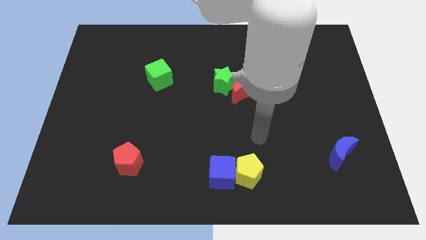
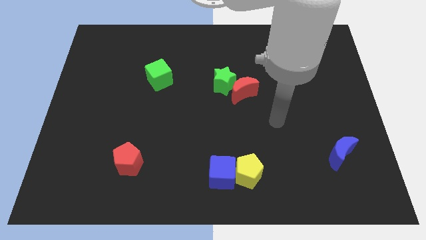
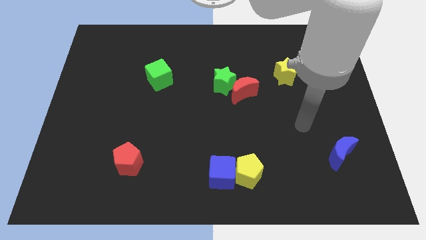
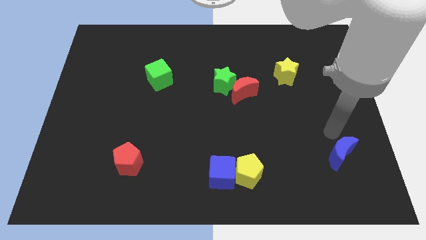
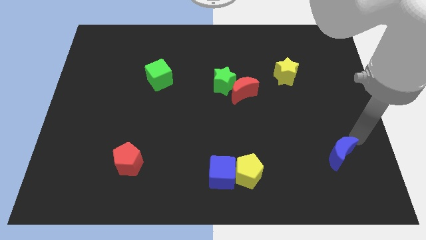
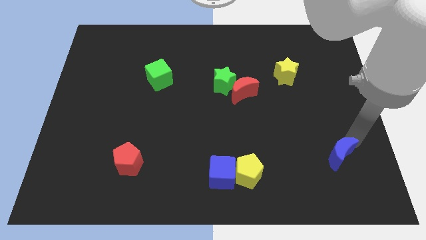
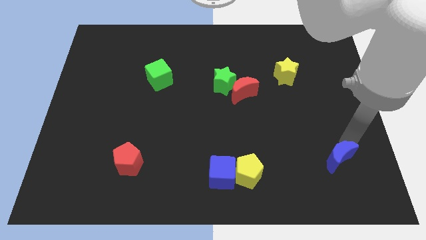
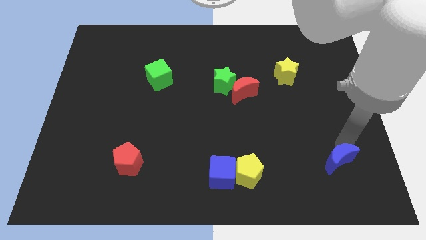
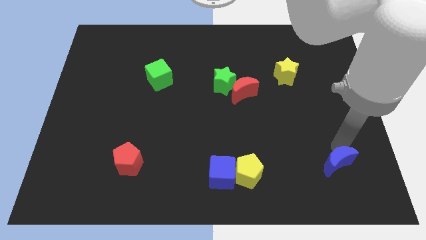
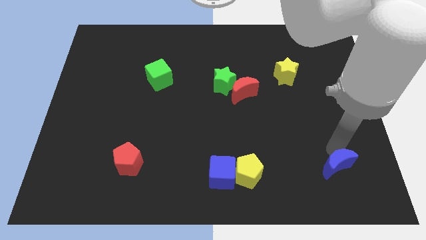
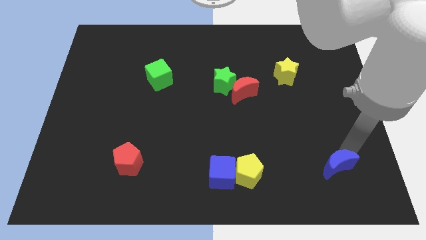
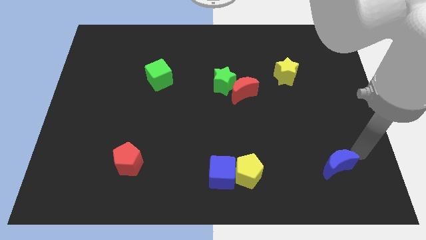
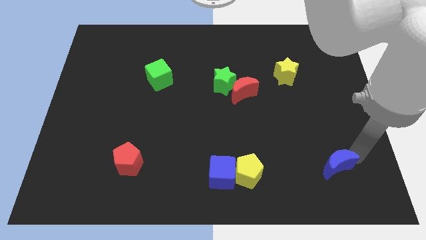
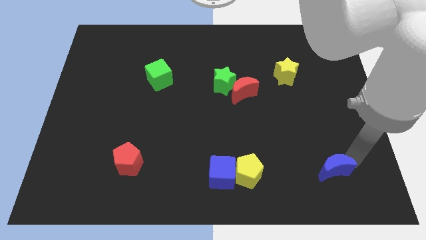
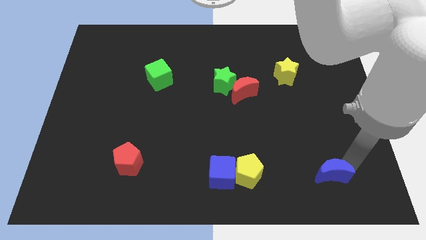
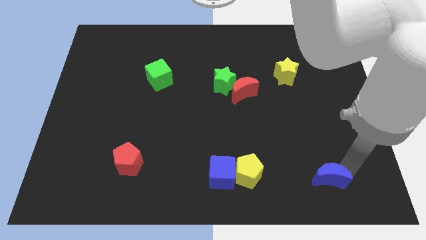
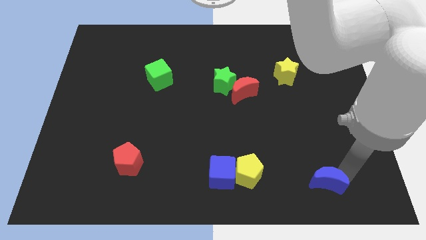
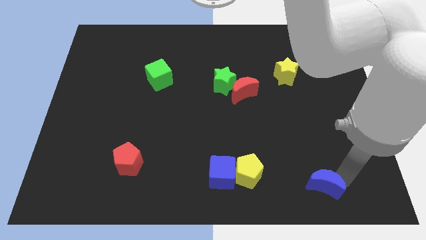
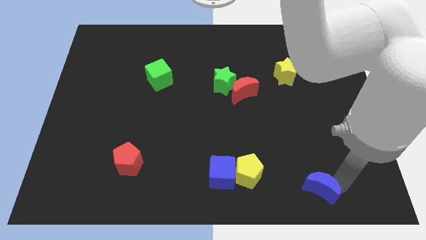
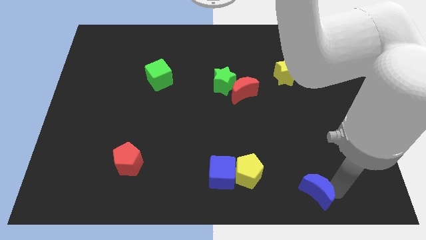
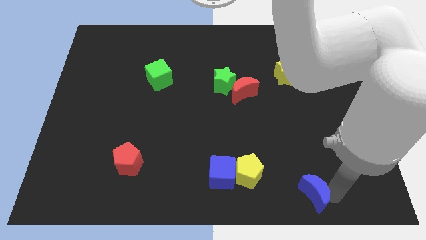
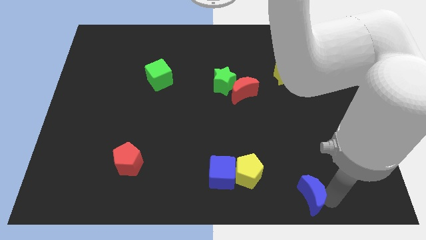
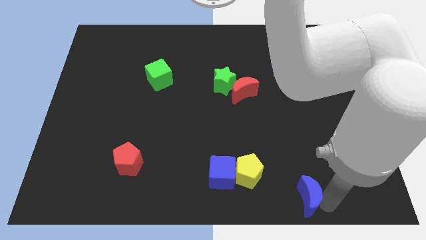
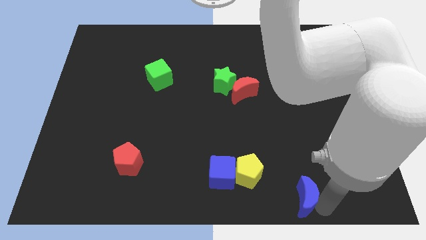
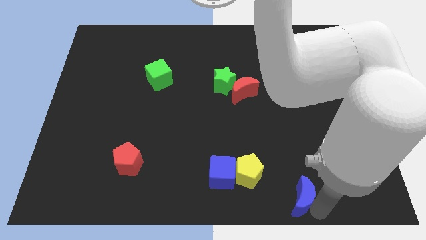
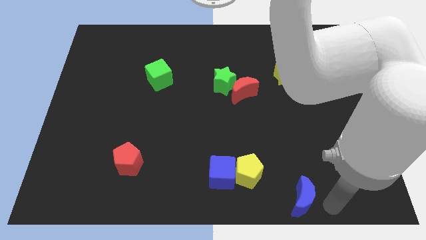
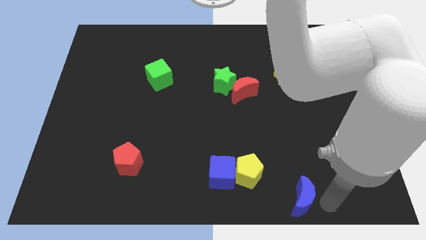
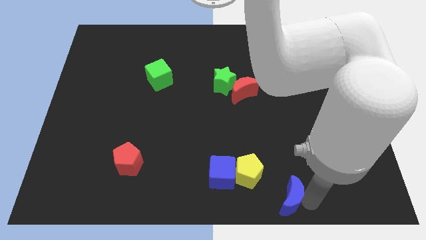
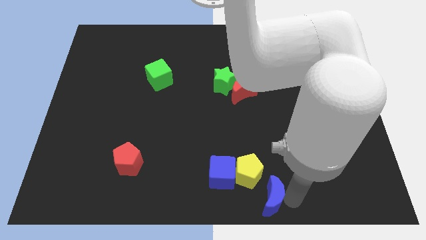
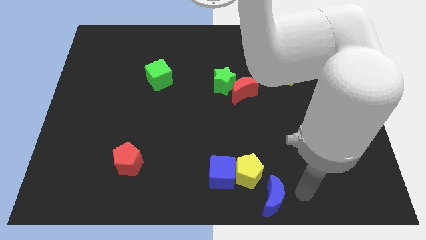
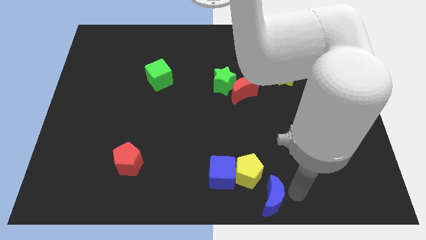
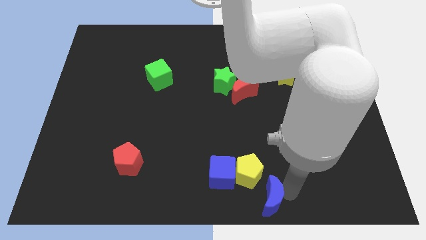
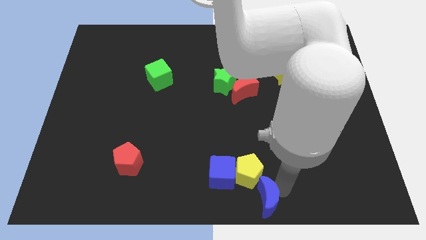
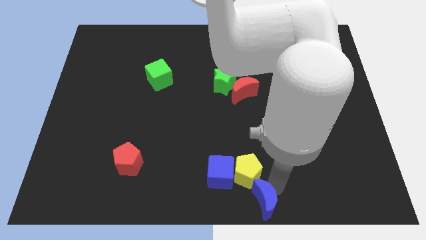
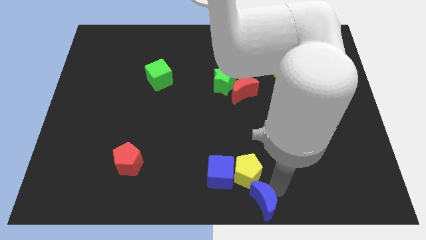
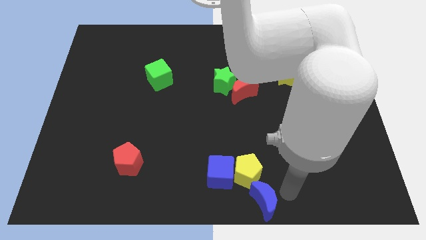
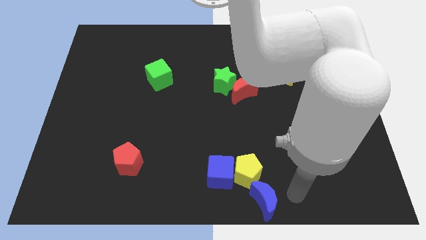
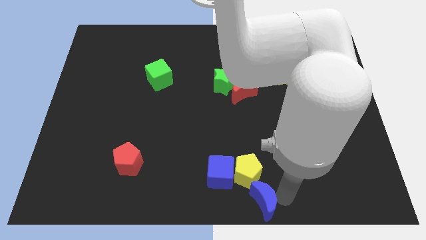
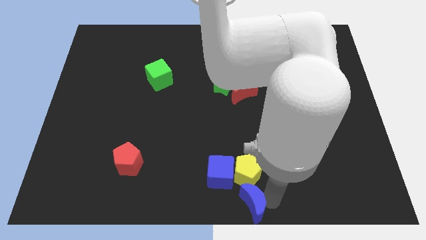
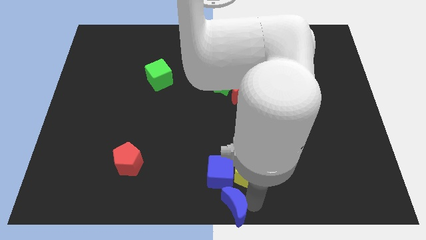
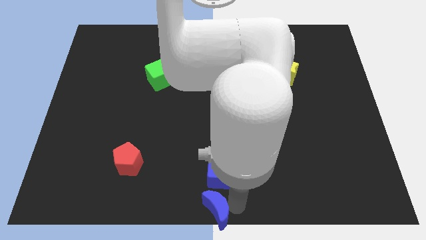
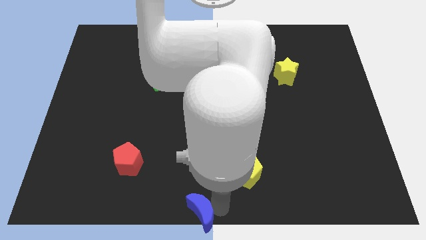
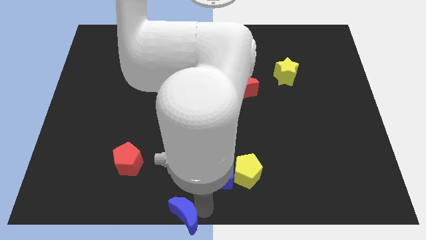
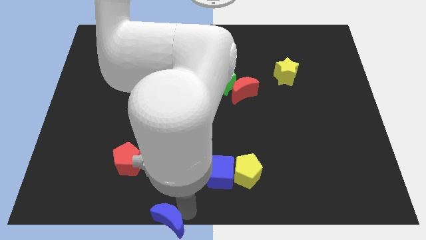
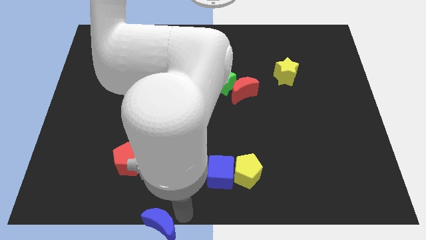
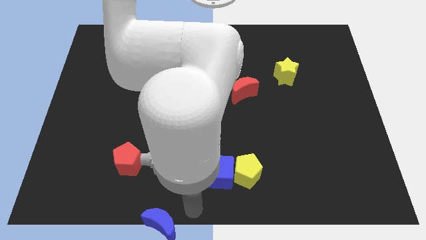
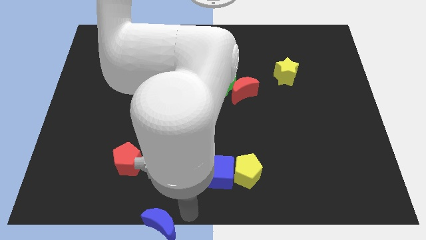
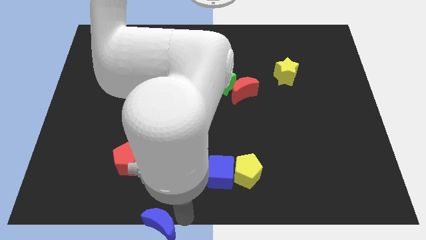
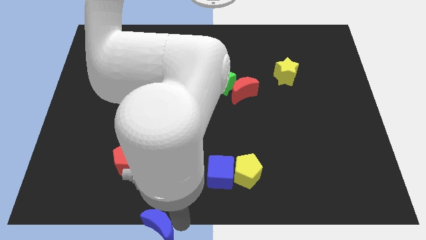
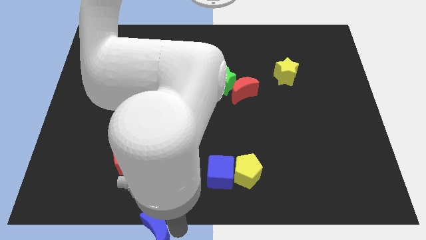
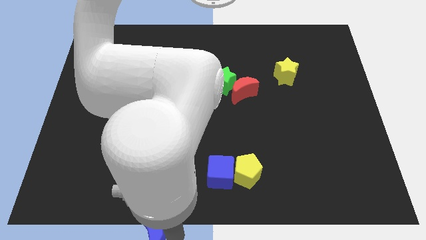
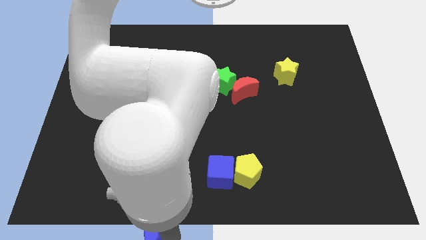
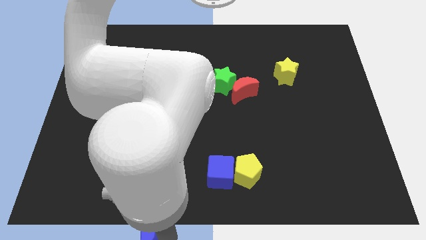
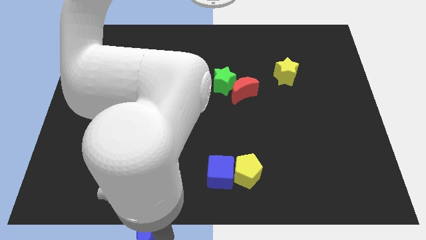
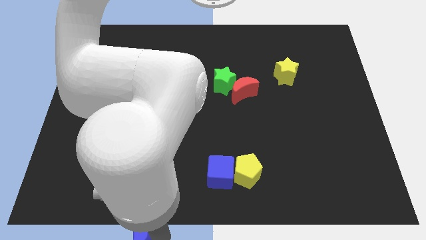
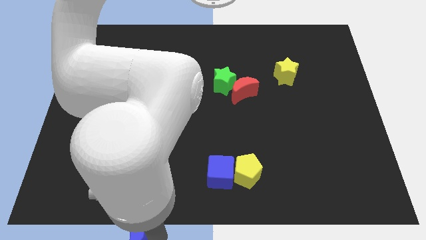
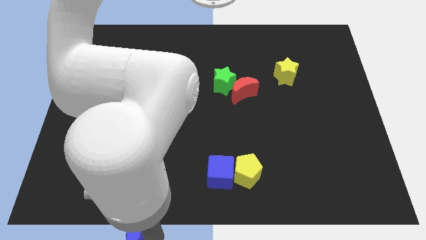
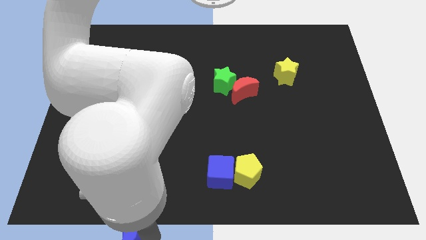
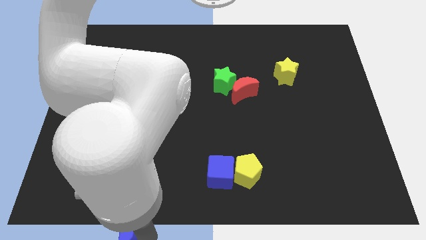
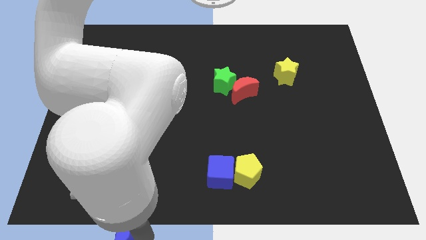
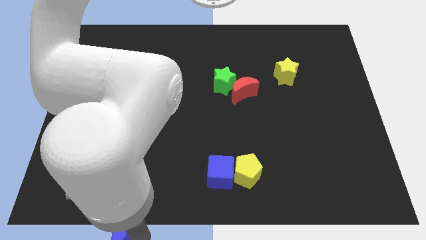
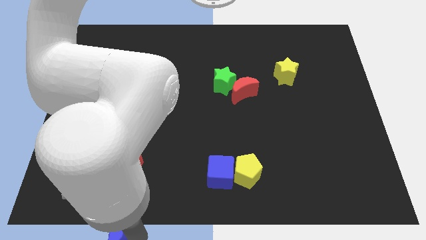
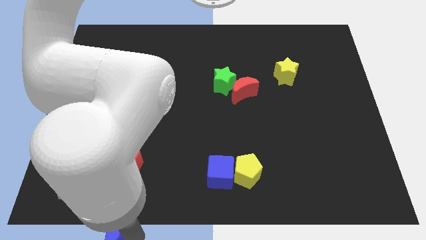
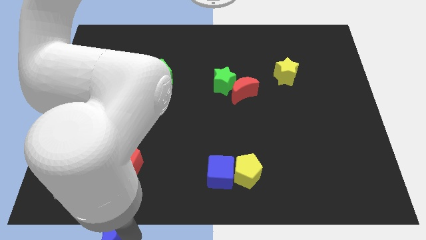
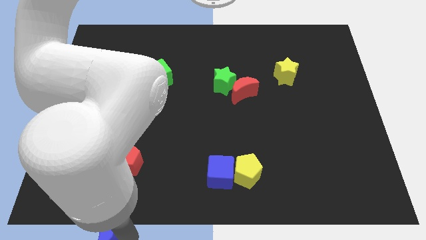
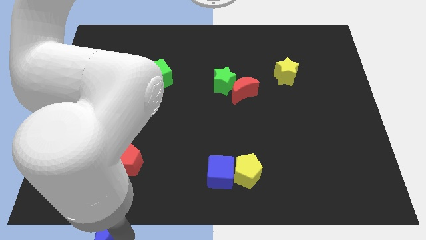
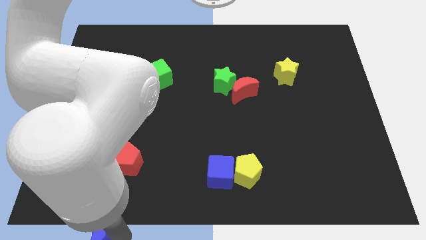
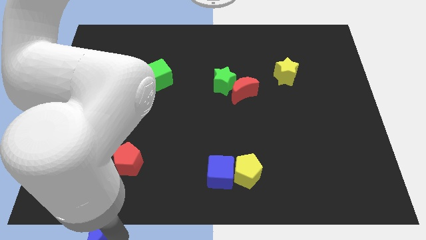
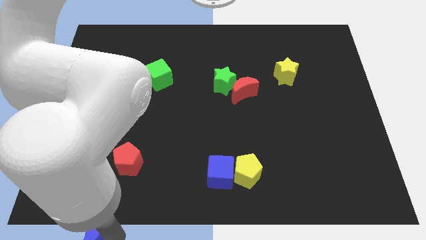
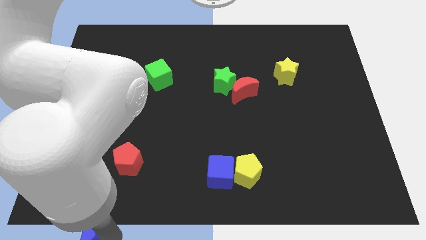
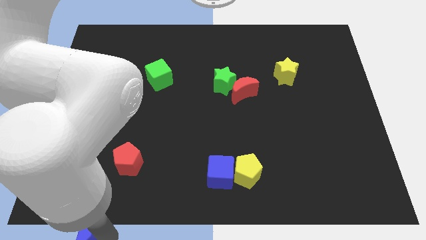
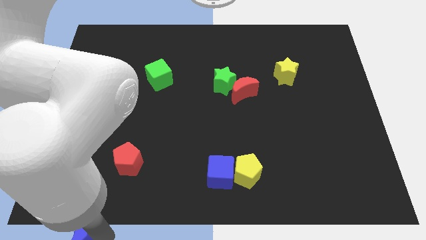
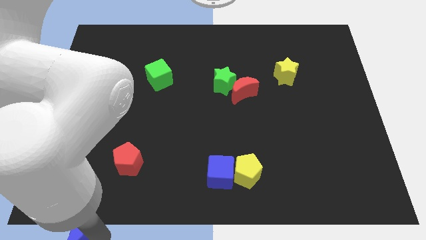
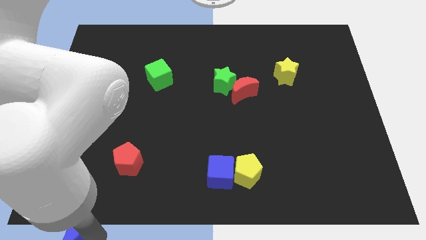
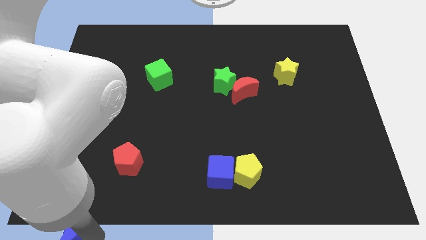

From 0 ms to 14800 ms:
push the blue moon to the lower left corner
